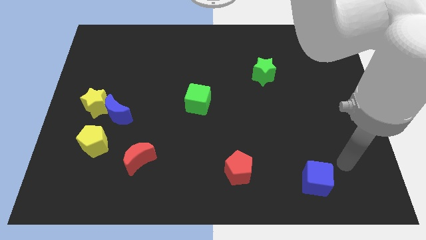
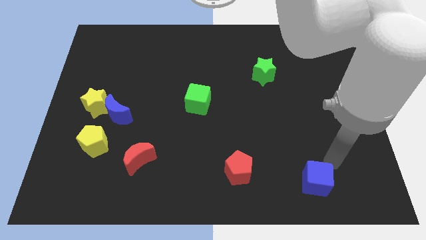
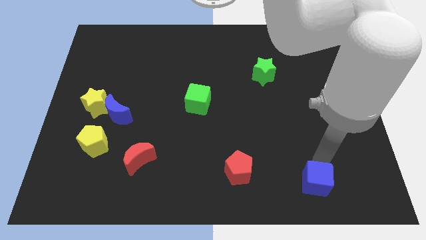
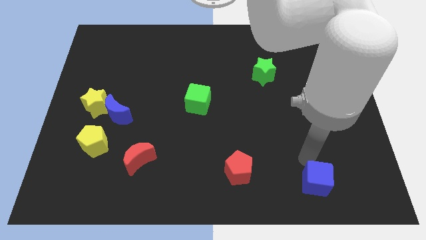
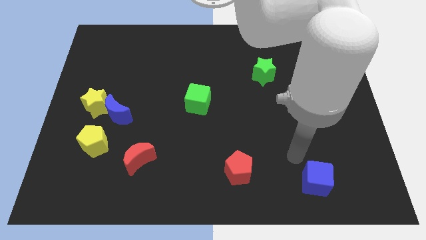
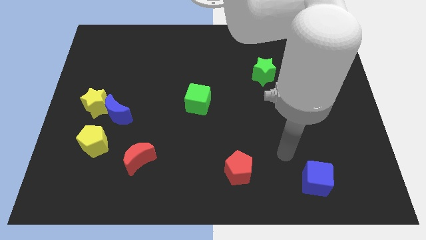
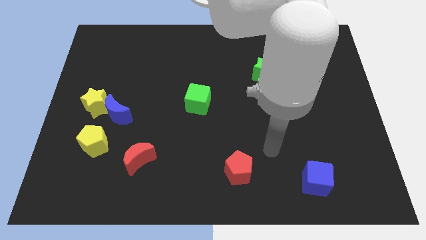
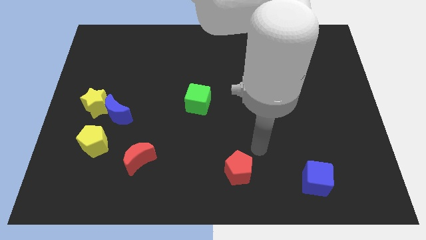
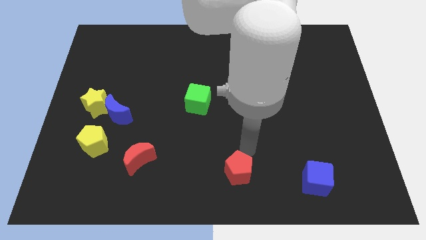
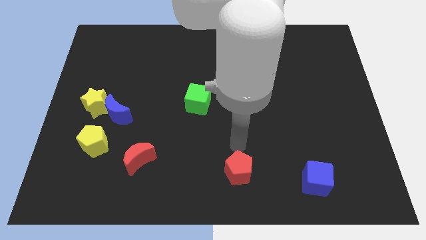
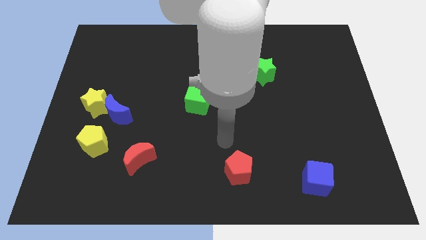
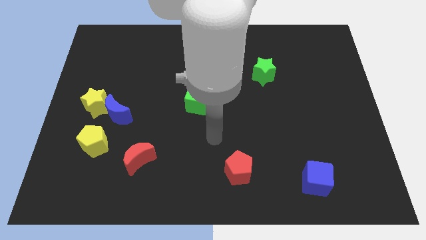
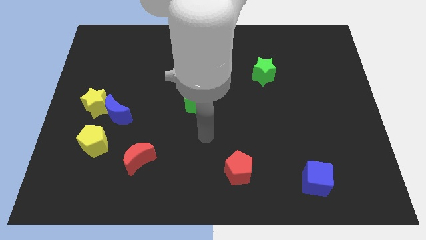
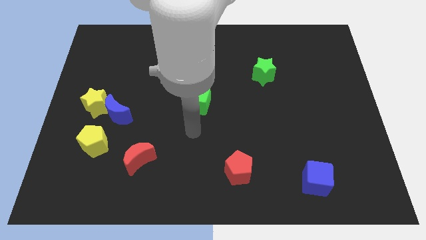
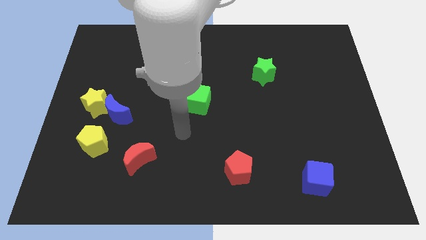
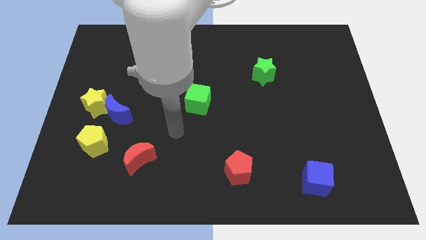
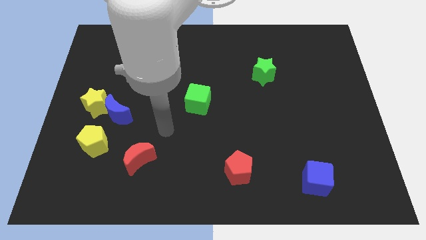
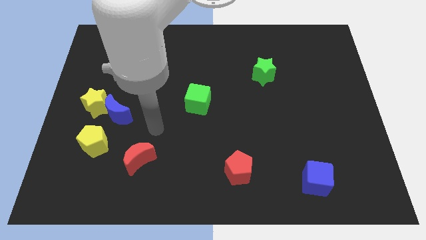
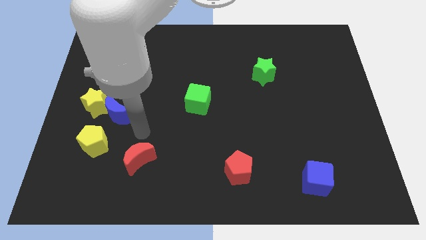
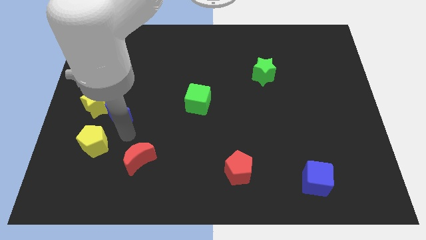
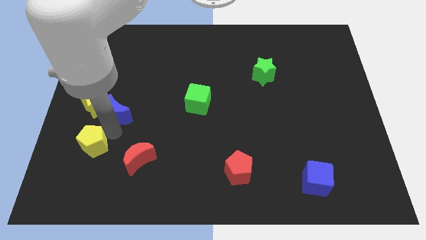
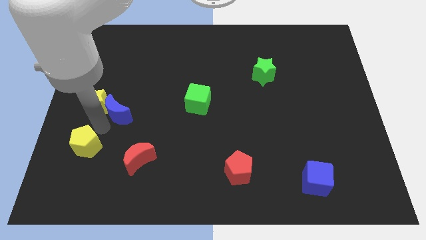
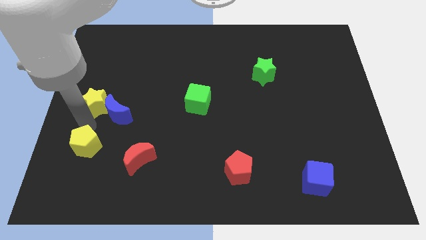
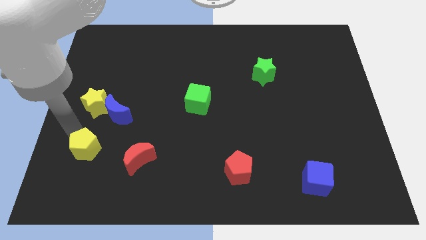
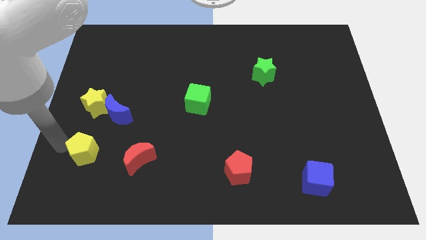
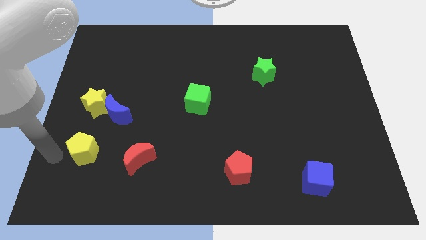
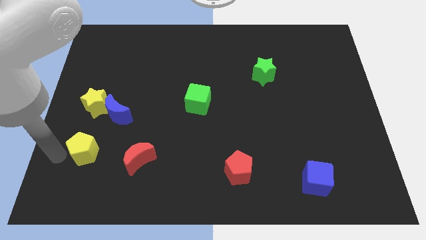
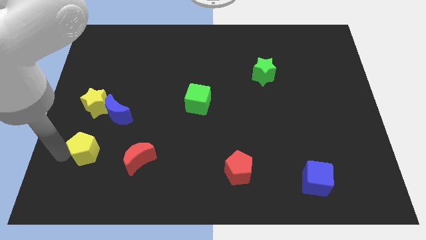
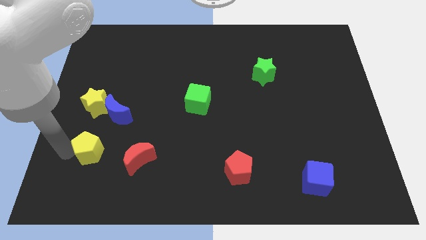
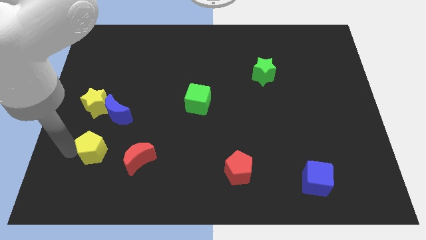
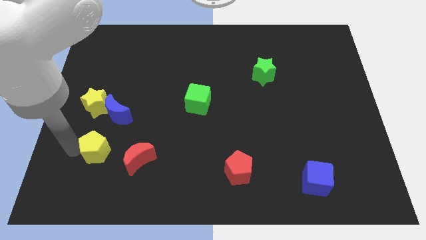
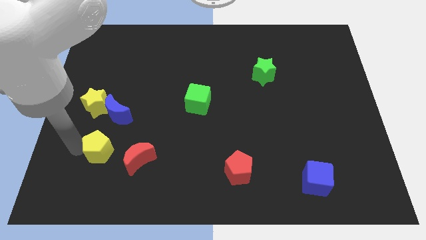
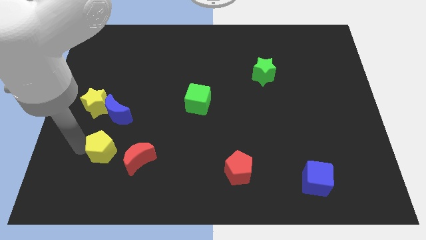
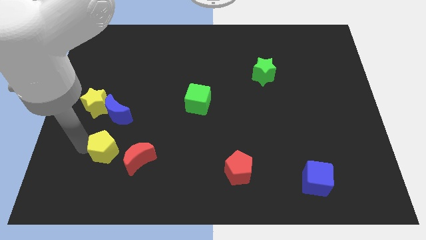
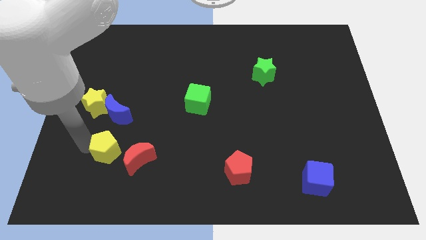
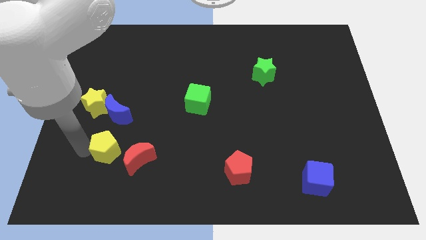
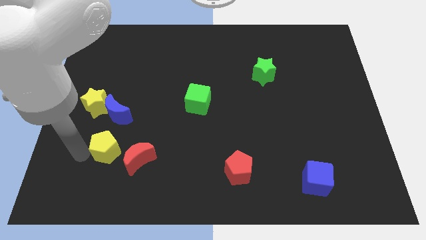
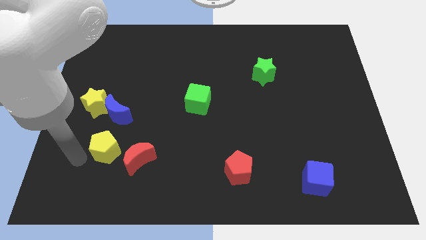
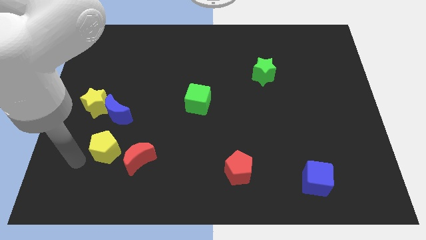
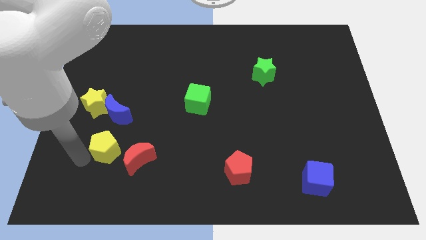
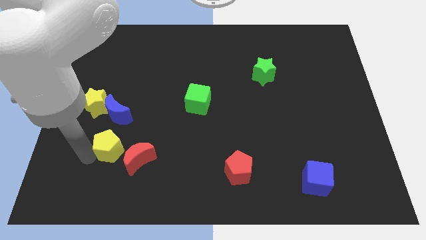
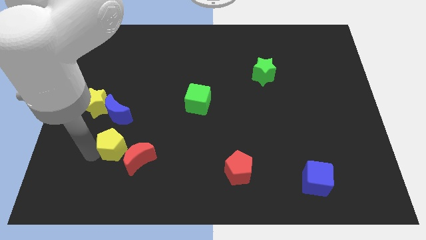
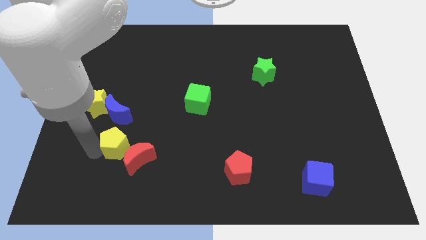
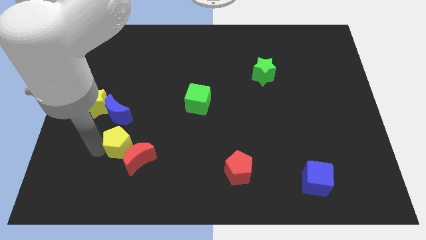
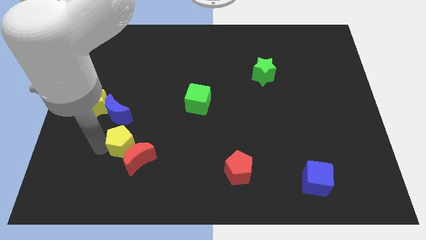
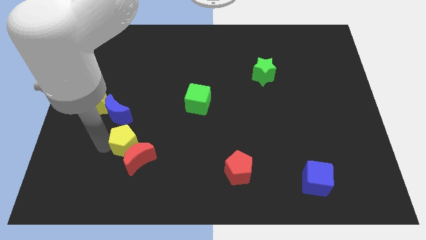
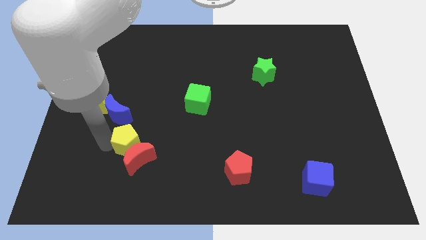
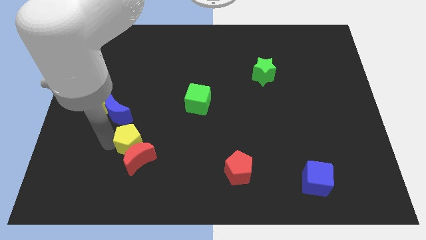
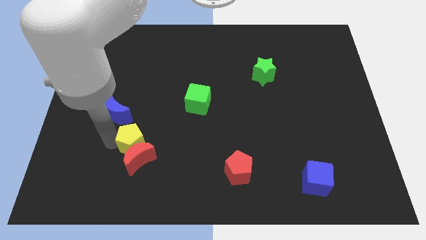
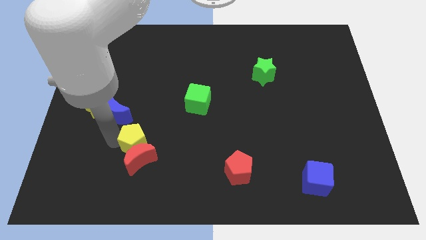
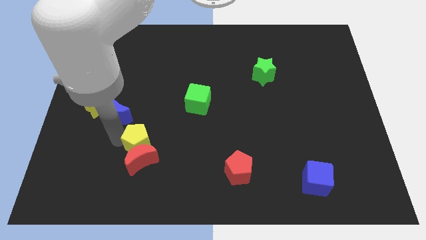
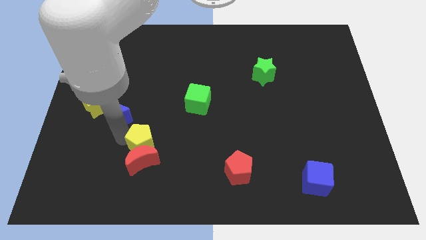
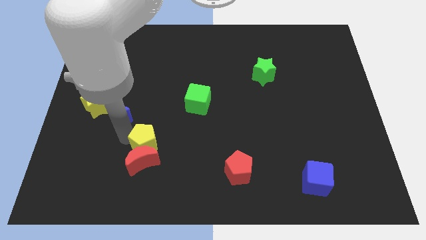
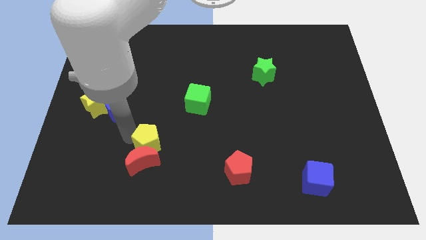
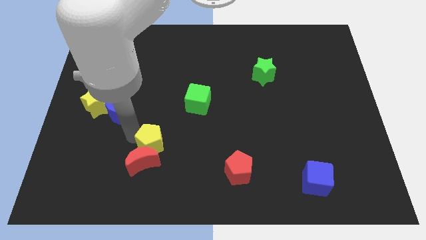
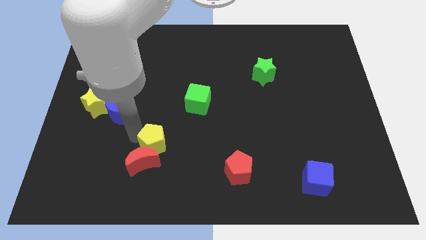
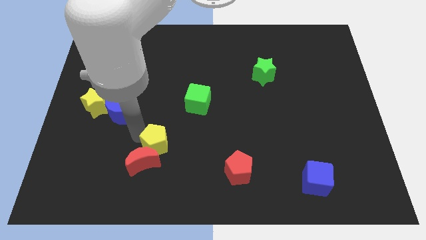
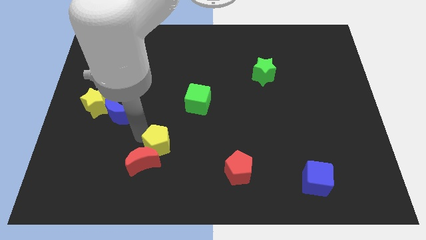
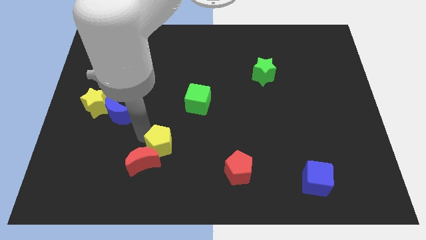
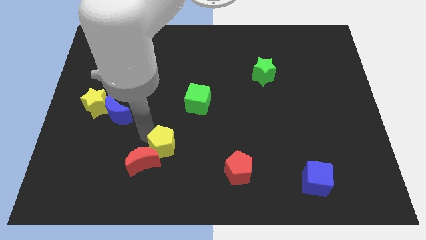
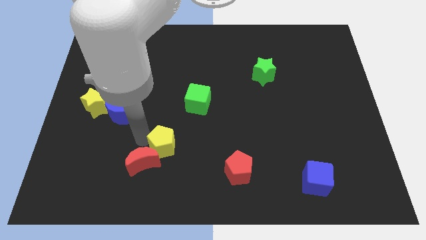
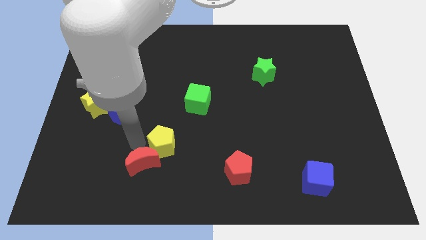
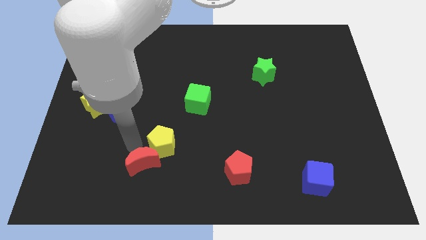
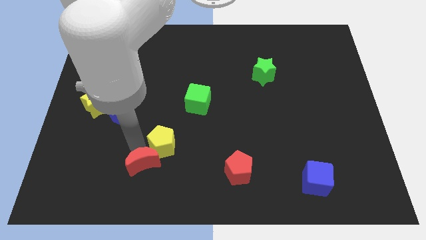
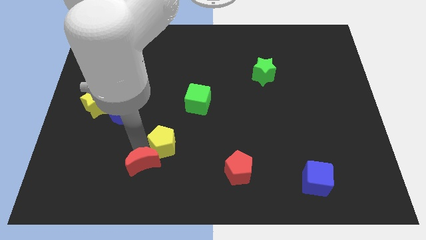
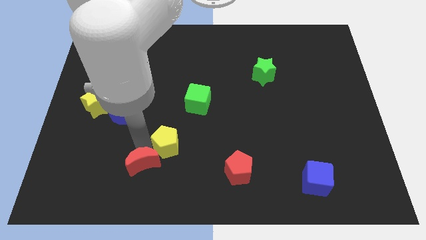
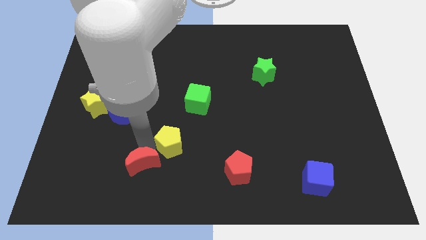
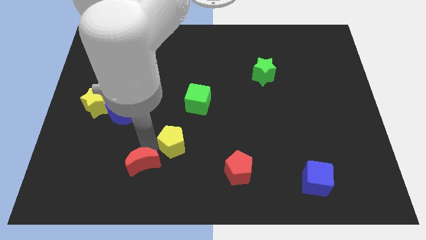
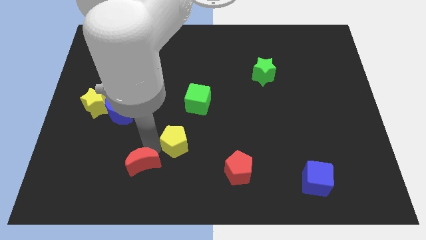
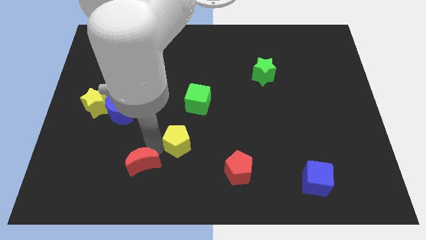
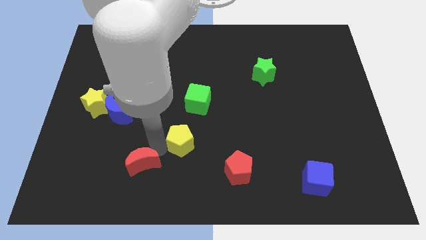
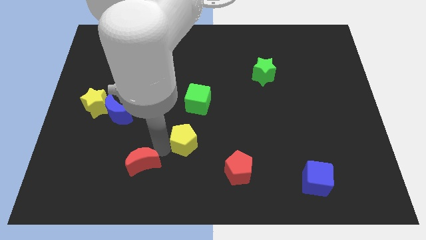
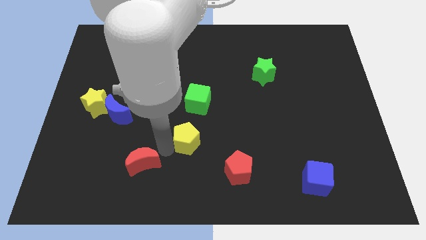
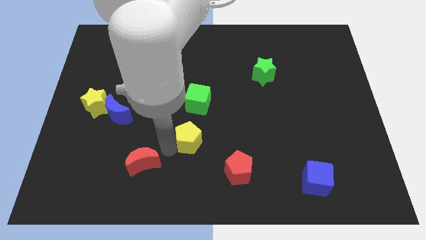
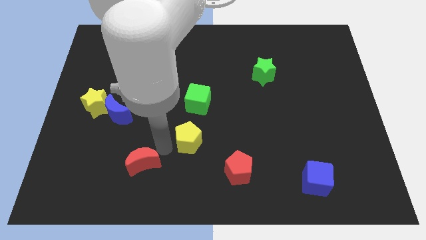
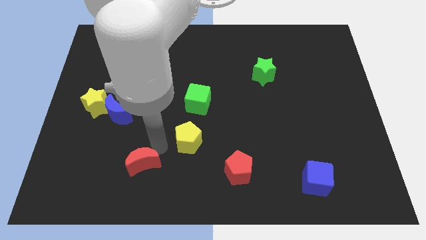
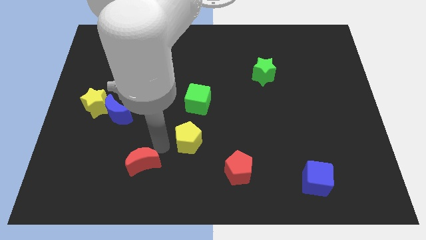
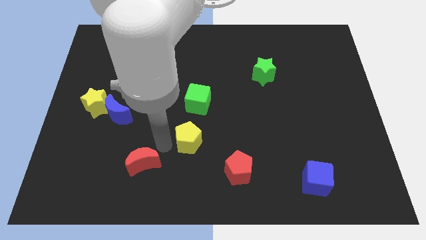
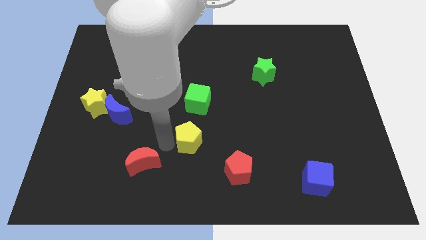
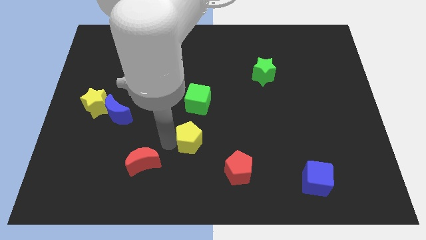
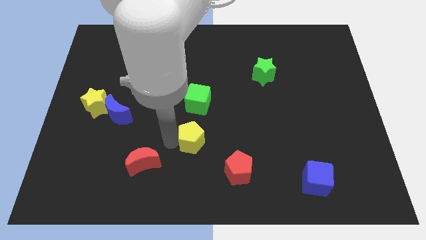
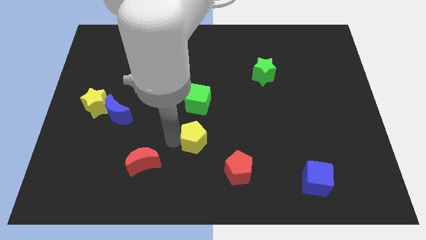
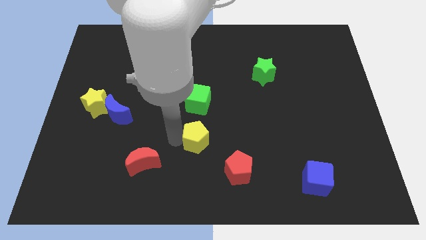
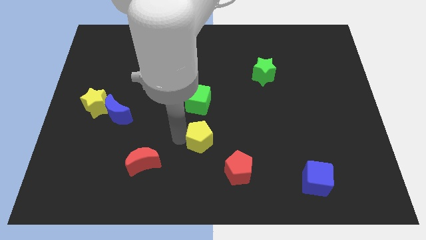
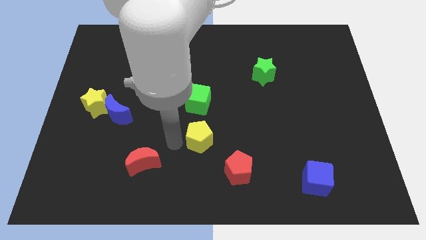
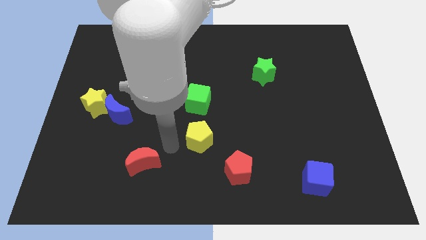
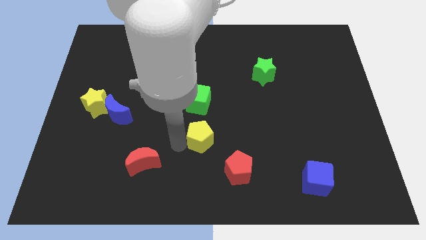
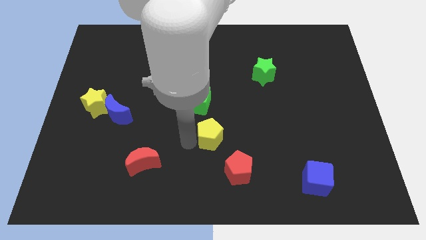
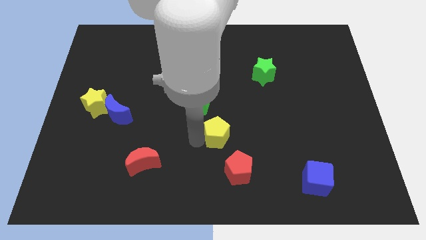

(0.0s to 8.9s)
slide the yellow pentagon to the top of the red pentagon
